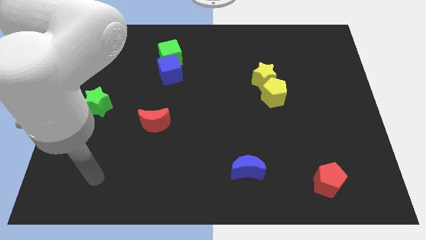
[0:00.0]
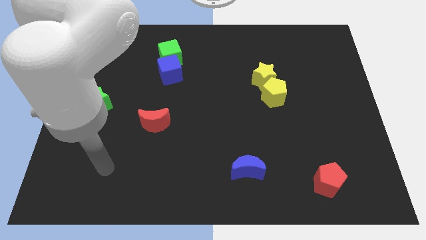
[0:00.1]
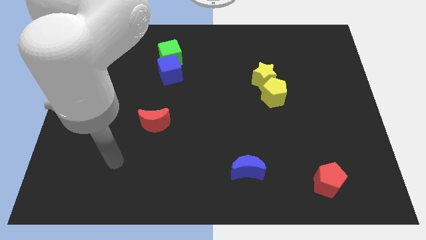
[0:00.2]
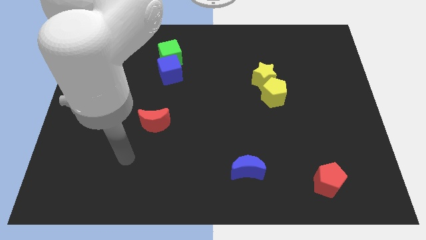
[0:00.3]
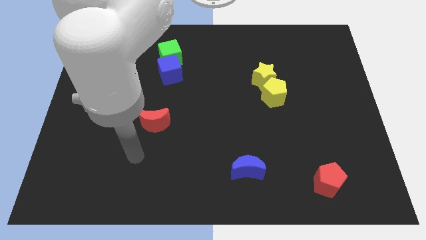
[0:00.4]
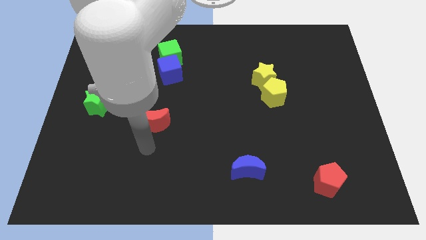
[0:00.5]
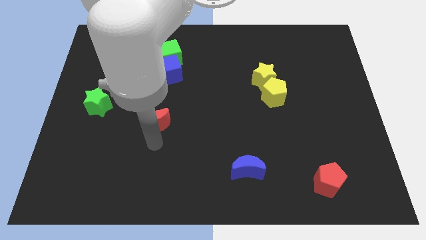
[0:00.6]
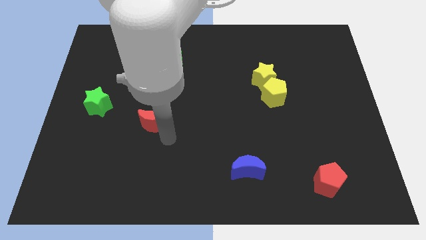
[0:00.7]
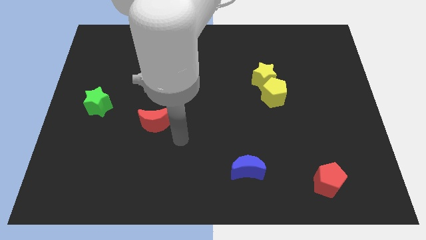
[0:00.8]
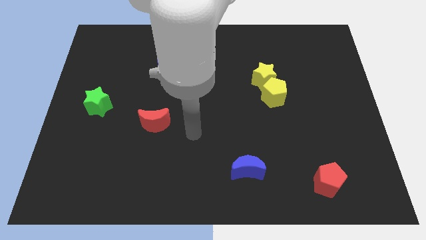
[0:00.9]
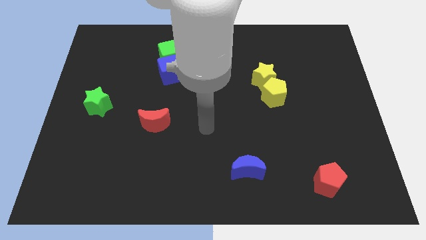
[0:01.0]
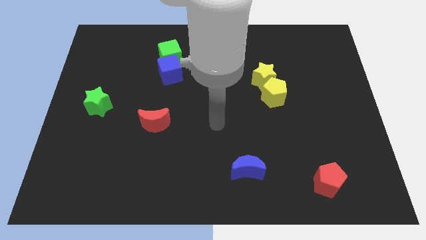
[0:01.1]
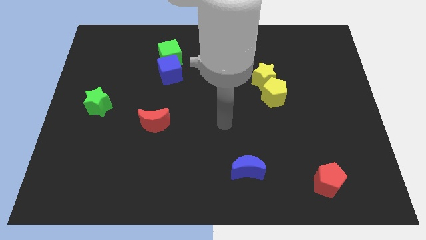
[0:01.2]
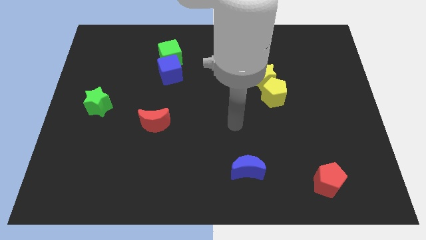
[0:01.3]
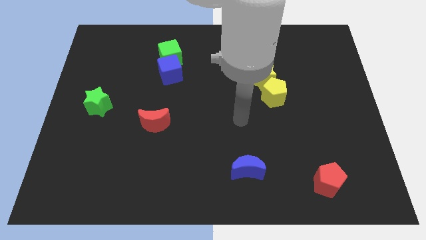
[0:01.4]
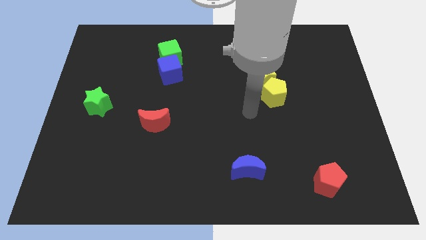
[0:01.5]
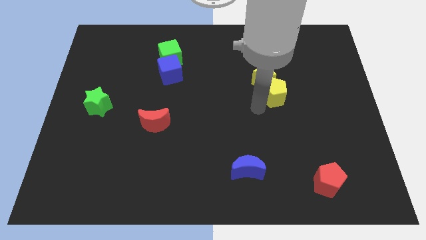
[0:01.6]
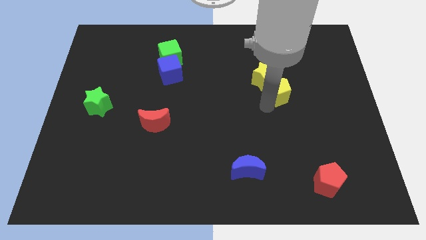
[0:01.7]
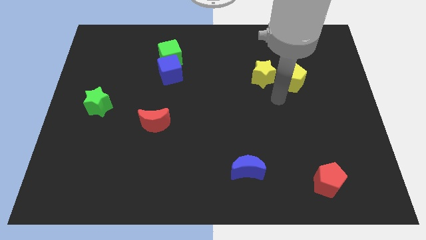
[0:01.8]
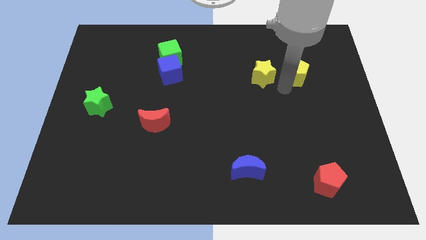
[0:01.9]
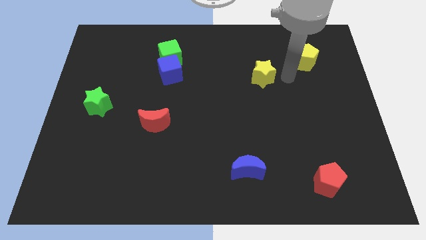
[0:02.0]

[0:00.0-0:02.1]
move the yellow star away from the yellow pentagon

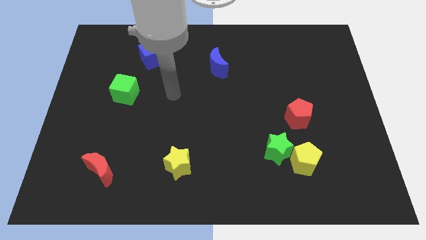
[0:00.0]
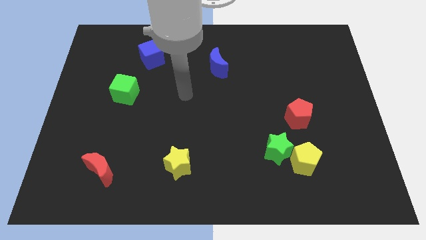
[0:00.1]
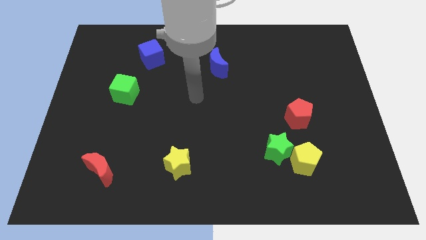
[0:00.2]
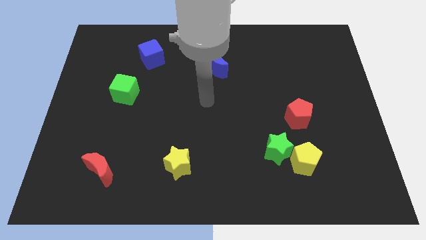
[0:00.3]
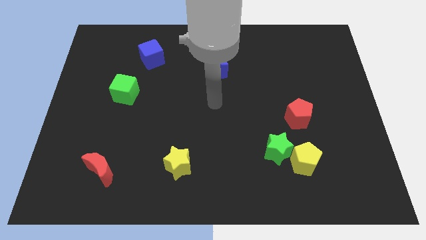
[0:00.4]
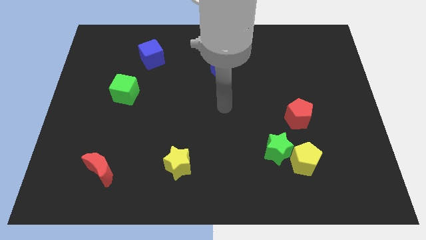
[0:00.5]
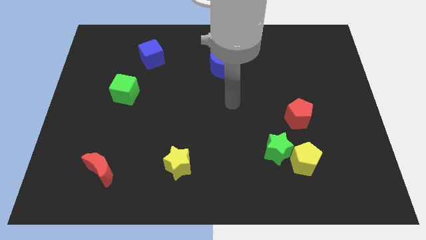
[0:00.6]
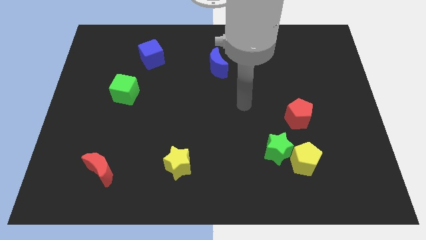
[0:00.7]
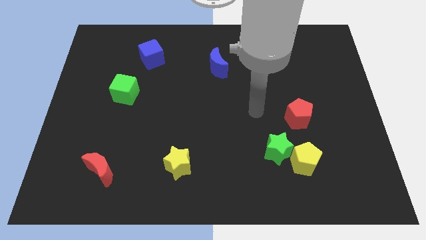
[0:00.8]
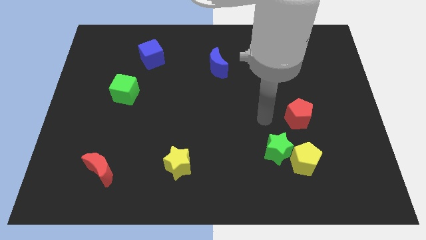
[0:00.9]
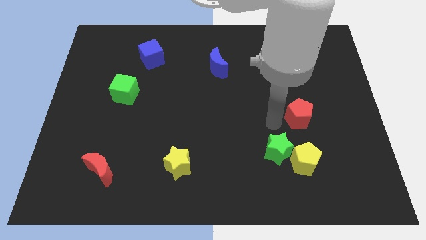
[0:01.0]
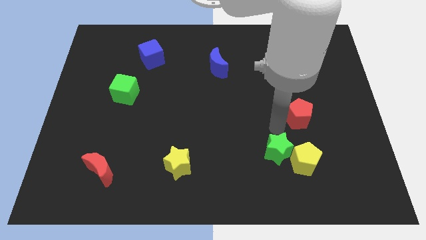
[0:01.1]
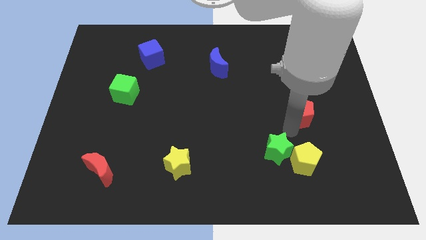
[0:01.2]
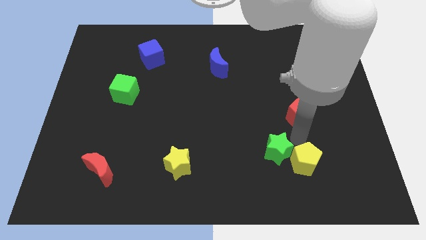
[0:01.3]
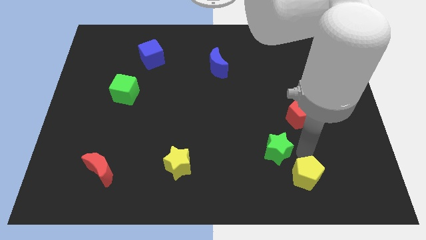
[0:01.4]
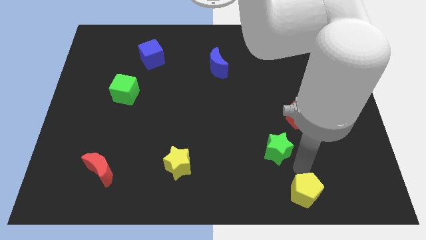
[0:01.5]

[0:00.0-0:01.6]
move the green star away from the yellow pentagon

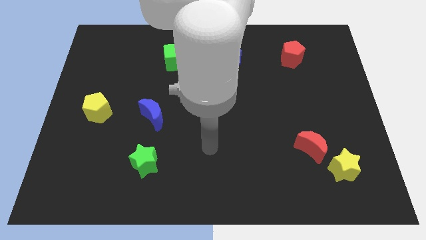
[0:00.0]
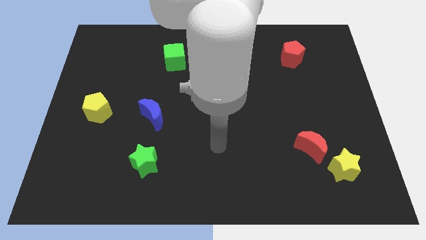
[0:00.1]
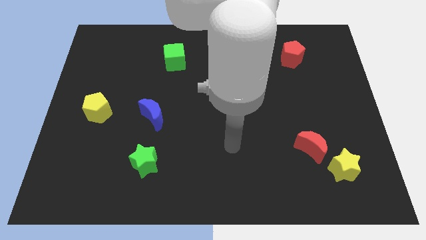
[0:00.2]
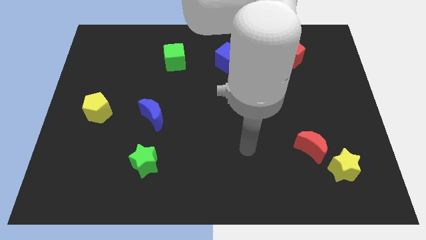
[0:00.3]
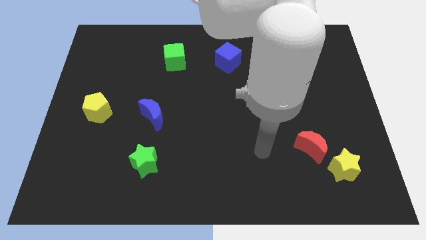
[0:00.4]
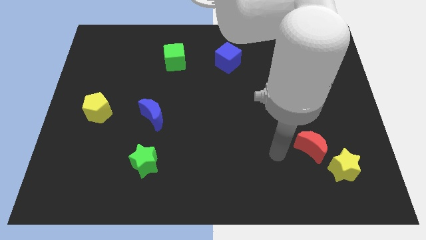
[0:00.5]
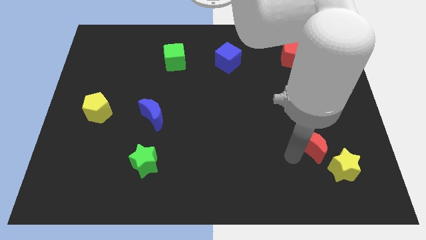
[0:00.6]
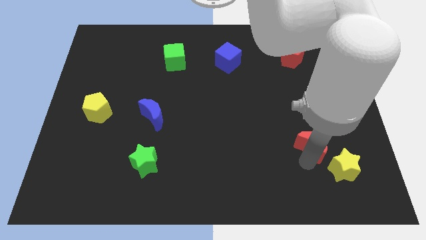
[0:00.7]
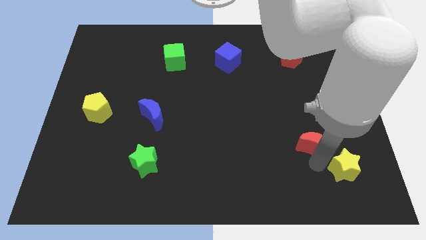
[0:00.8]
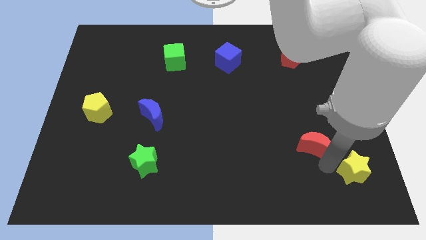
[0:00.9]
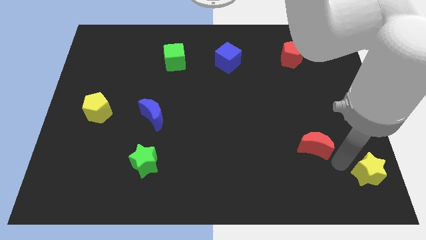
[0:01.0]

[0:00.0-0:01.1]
separate the red moon from the yellow star

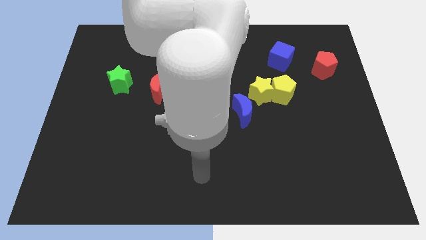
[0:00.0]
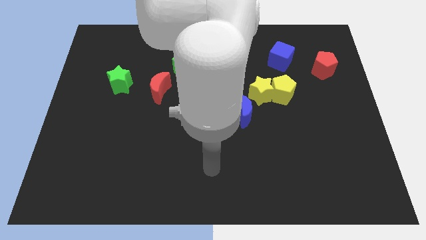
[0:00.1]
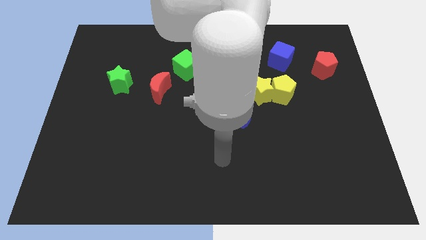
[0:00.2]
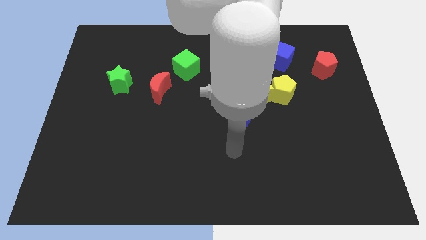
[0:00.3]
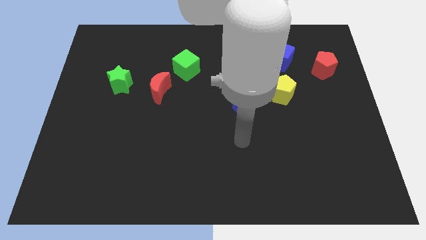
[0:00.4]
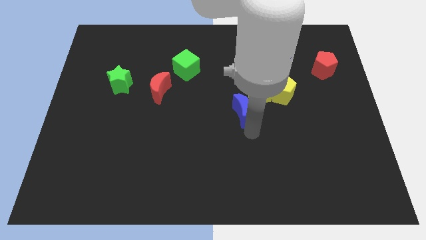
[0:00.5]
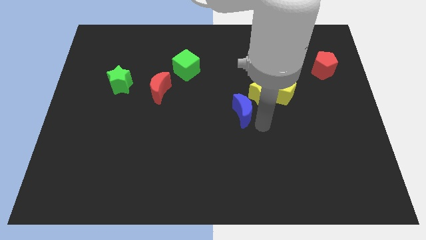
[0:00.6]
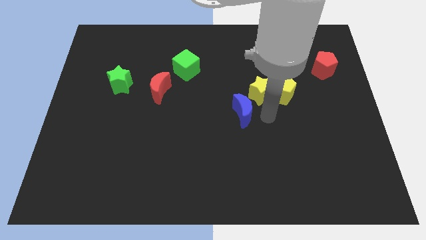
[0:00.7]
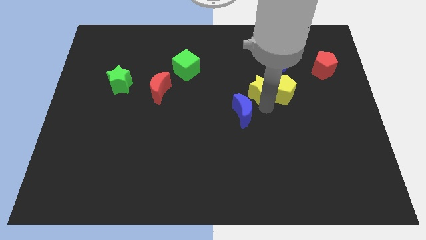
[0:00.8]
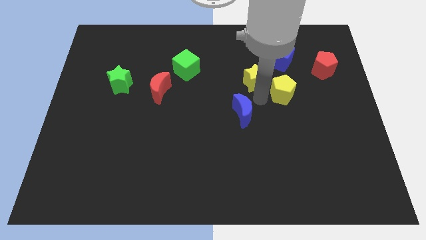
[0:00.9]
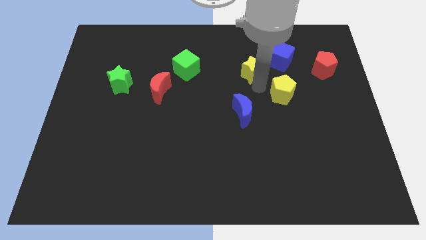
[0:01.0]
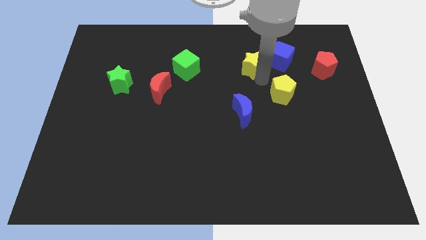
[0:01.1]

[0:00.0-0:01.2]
separate the yellow pentagon from the yellow star

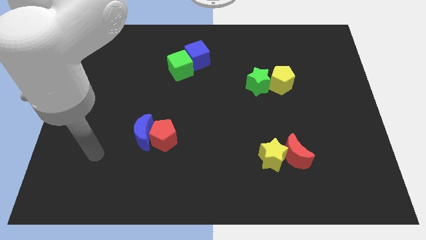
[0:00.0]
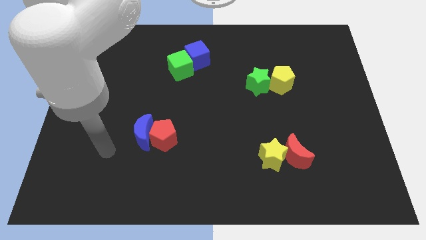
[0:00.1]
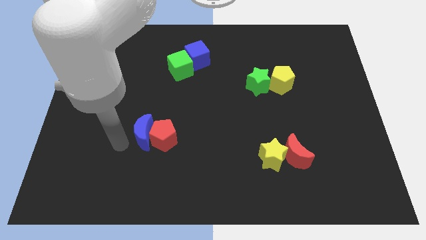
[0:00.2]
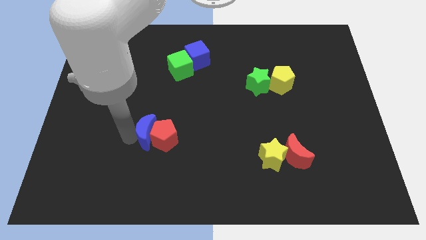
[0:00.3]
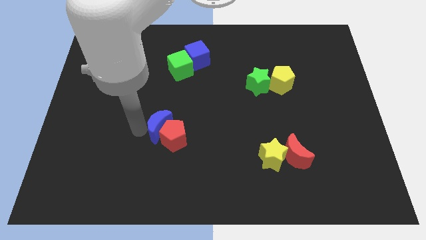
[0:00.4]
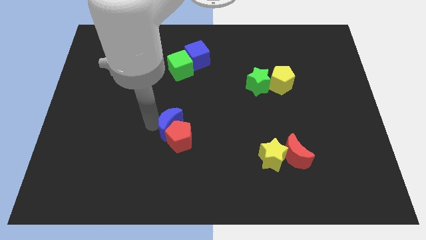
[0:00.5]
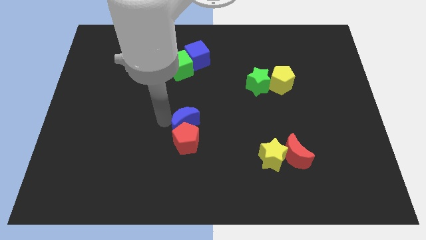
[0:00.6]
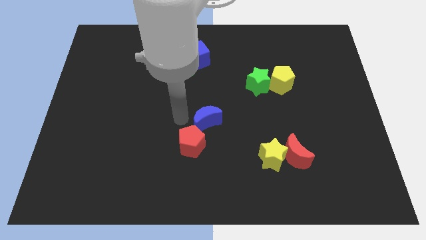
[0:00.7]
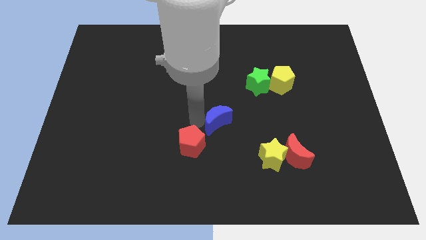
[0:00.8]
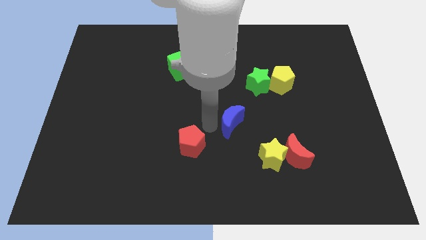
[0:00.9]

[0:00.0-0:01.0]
move the red pentagon away from the blue moon

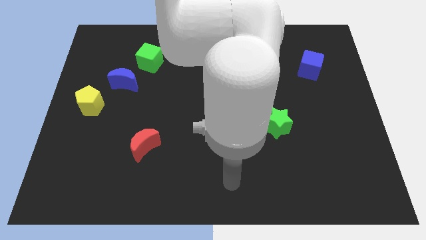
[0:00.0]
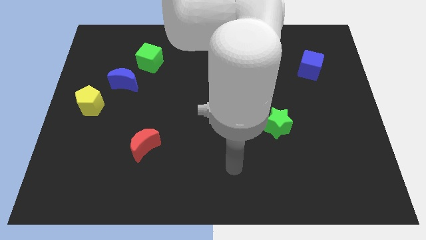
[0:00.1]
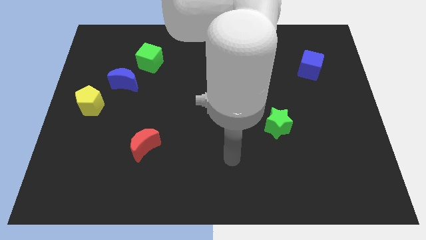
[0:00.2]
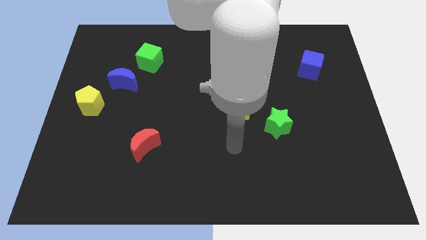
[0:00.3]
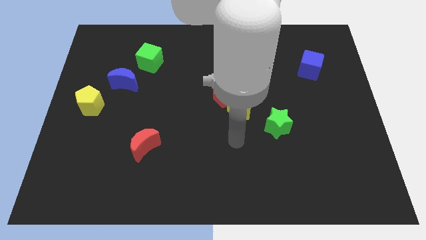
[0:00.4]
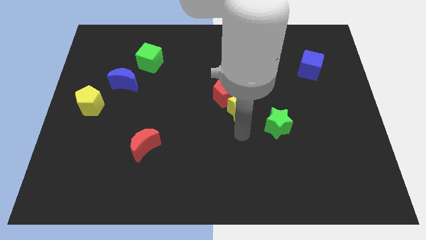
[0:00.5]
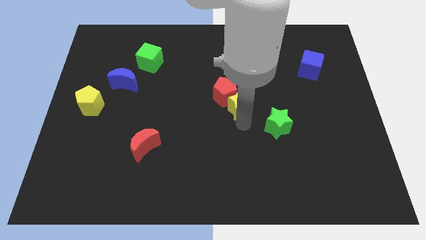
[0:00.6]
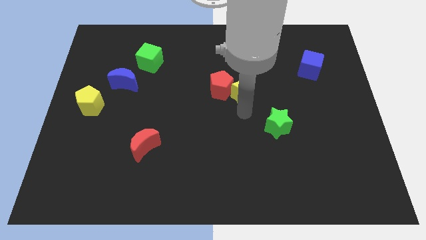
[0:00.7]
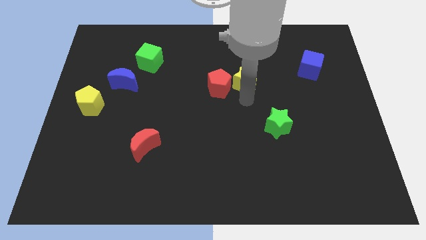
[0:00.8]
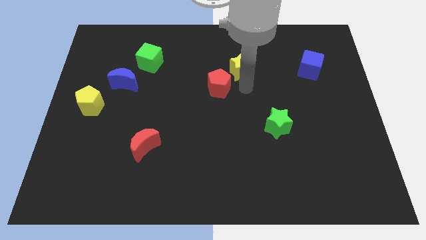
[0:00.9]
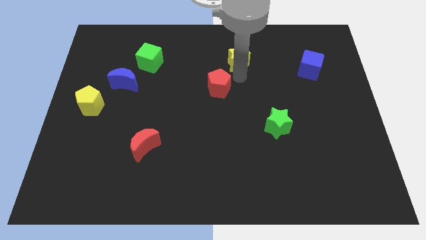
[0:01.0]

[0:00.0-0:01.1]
pull the red pentagon apart from the yellow star

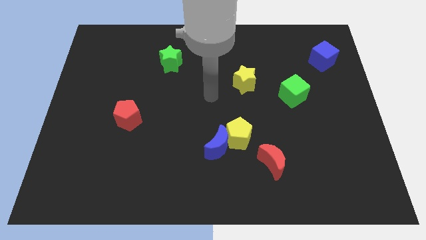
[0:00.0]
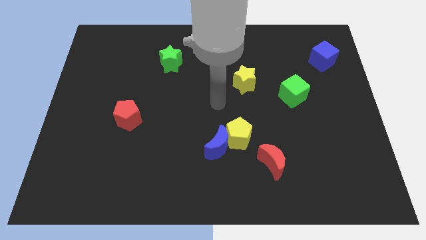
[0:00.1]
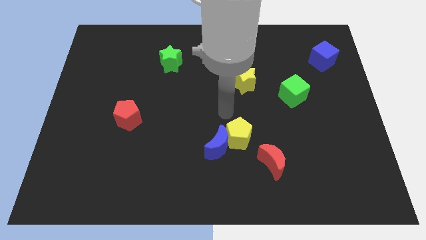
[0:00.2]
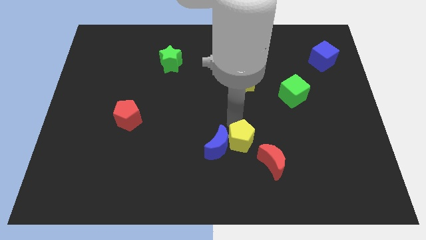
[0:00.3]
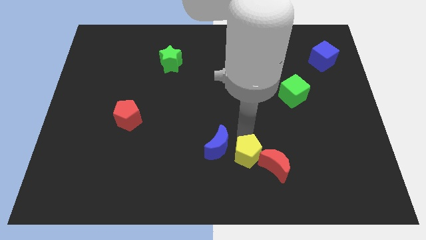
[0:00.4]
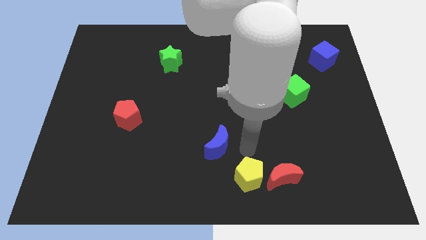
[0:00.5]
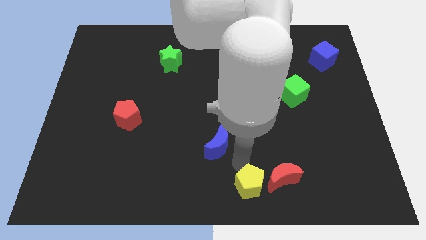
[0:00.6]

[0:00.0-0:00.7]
separate the blue moon from the yellow pentagon

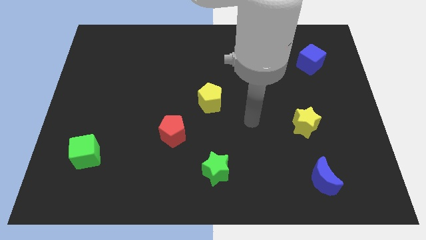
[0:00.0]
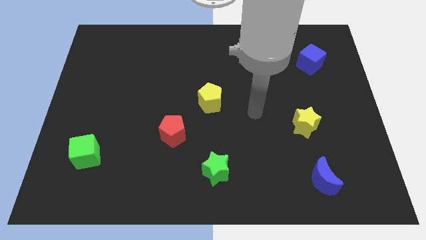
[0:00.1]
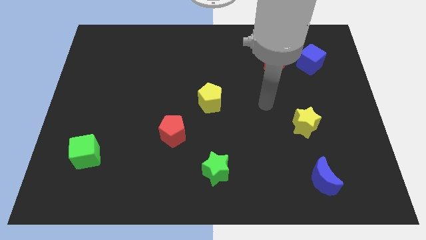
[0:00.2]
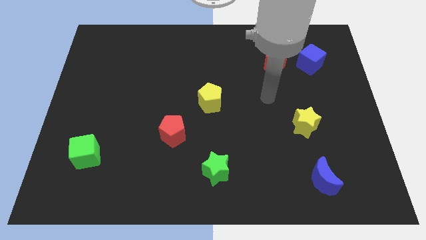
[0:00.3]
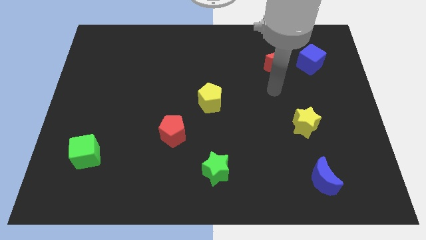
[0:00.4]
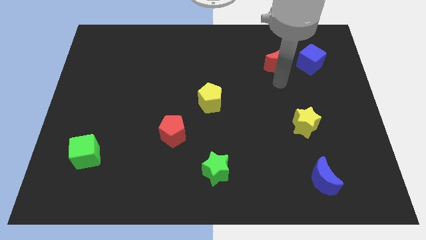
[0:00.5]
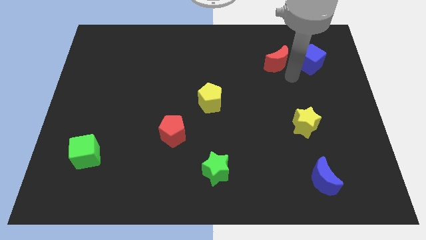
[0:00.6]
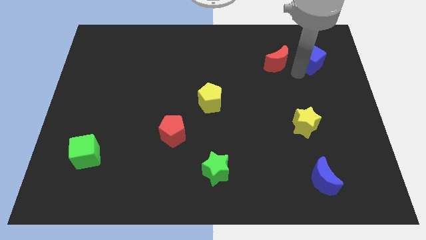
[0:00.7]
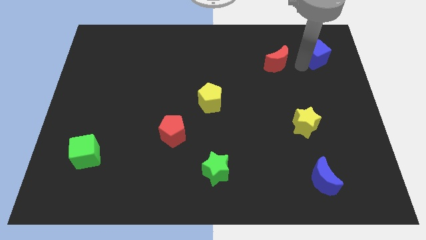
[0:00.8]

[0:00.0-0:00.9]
pull the red moon apart from the blue cube
